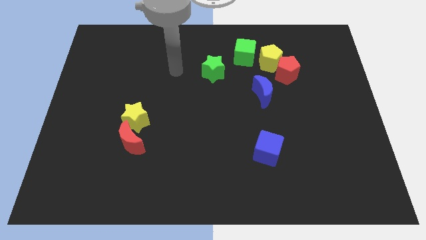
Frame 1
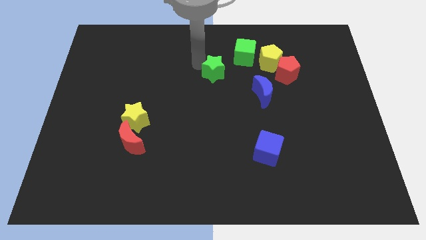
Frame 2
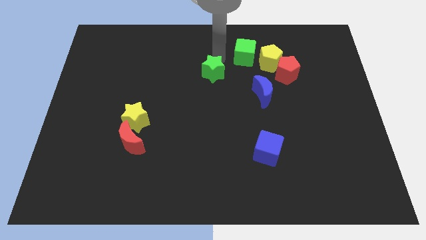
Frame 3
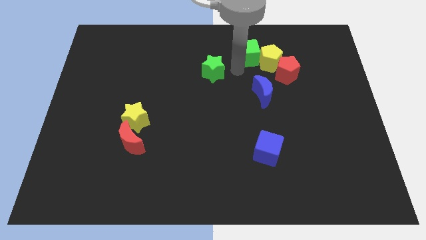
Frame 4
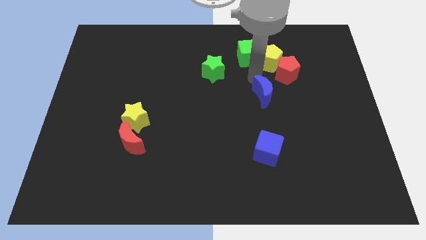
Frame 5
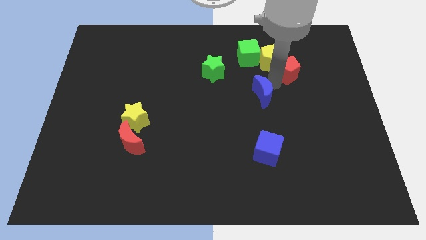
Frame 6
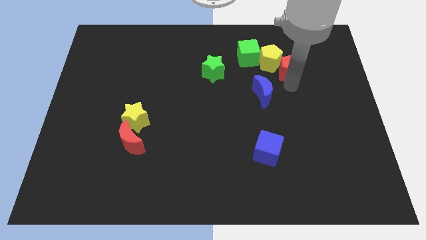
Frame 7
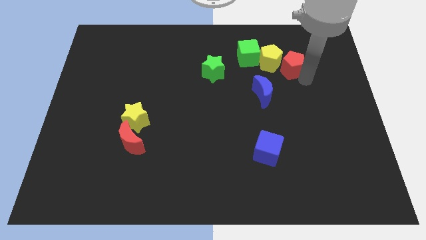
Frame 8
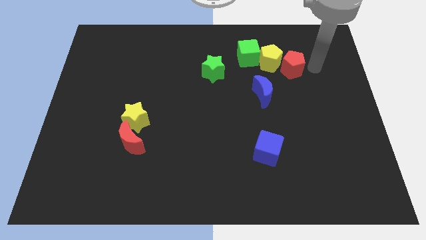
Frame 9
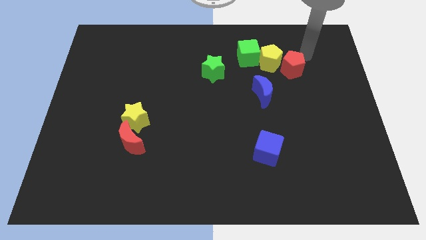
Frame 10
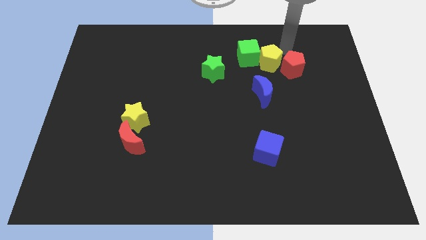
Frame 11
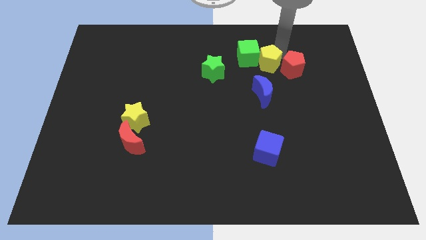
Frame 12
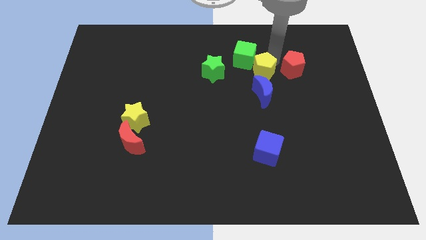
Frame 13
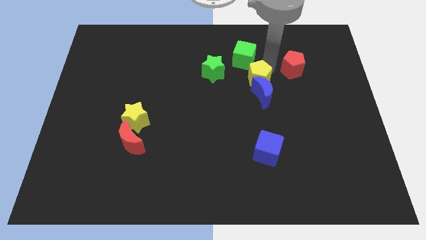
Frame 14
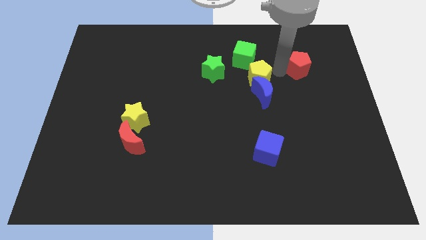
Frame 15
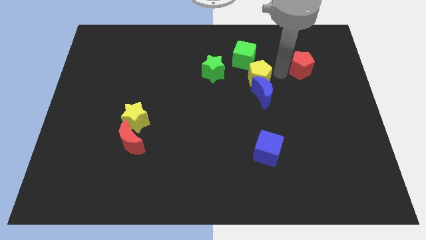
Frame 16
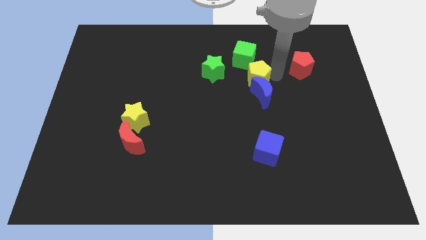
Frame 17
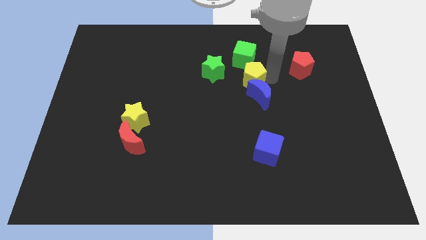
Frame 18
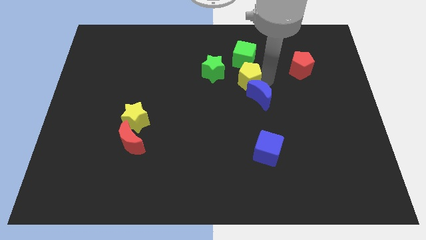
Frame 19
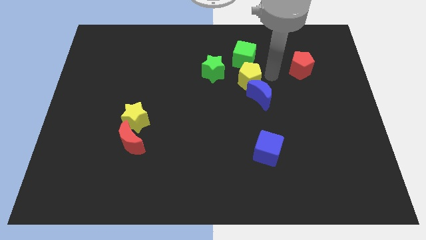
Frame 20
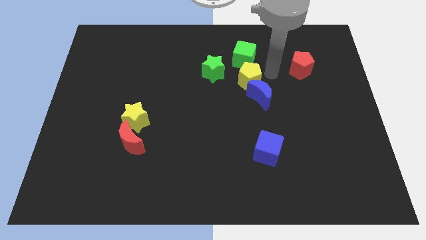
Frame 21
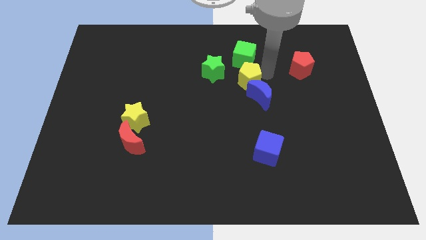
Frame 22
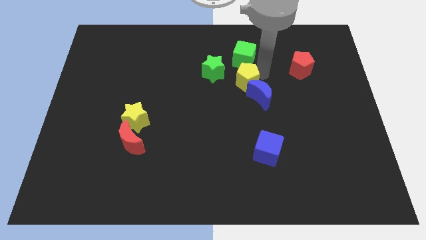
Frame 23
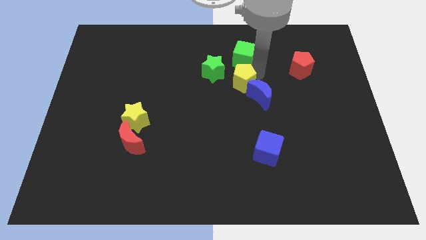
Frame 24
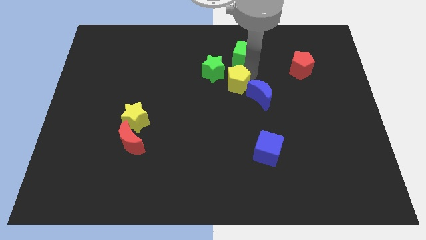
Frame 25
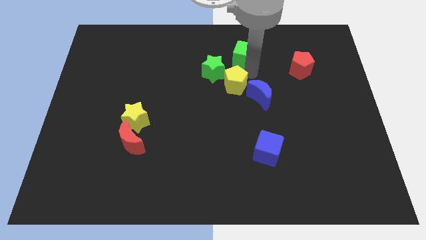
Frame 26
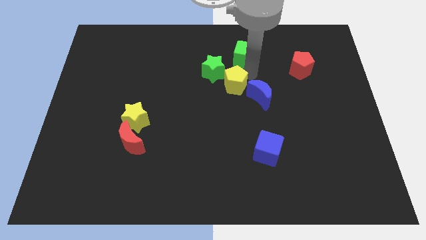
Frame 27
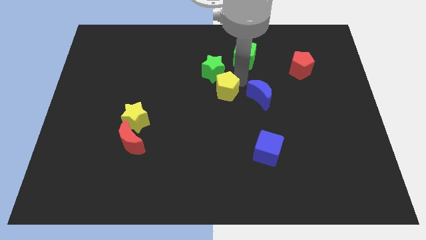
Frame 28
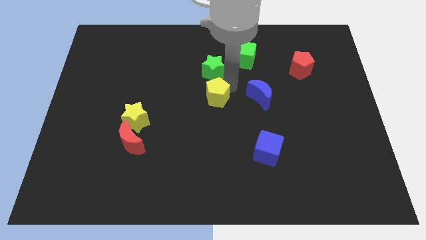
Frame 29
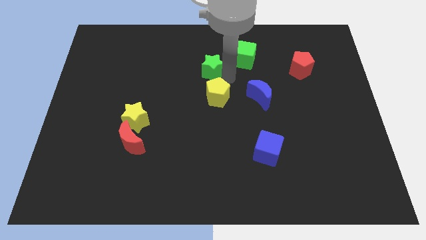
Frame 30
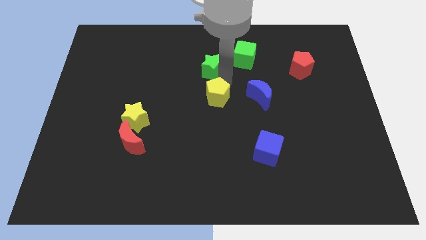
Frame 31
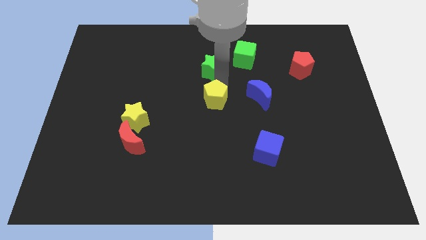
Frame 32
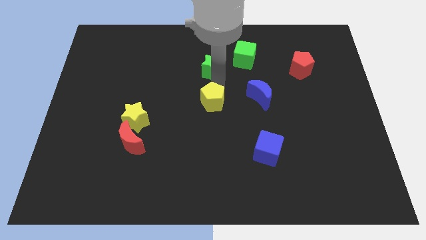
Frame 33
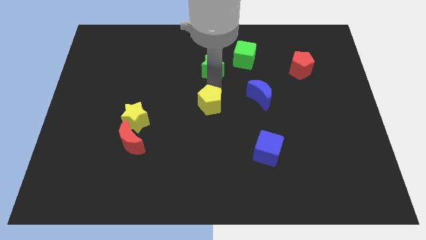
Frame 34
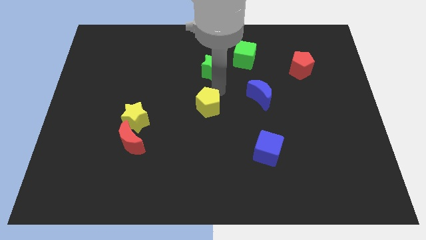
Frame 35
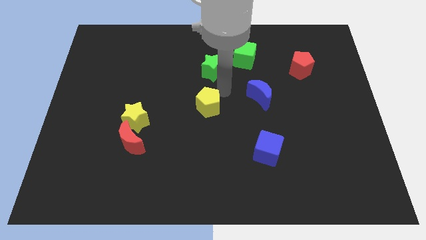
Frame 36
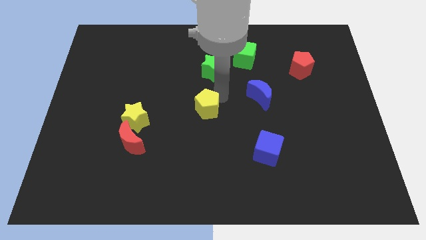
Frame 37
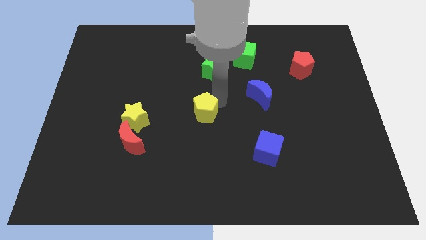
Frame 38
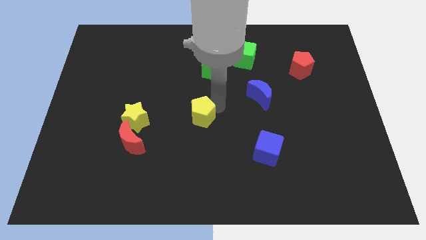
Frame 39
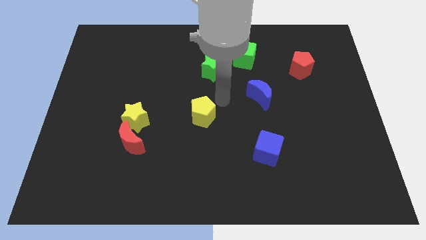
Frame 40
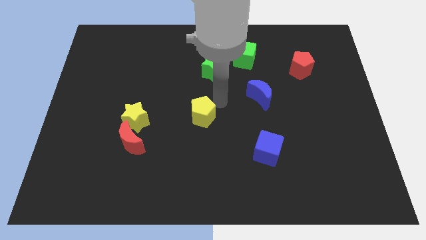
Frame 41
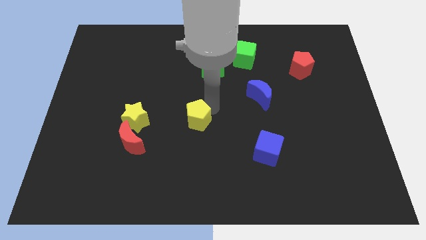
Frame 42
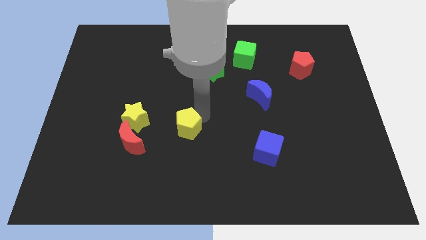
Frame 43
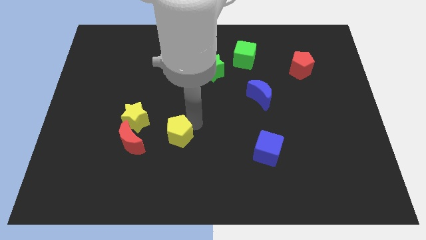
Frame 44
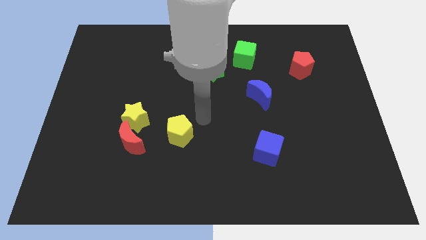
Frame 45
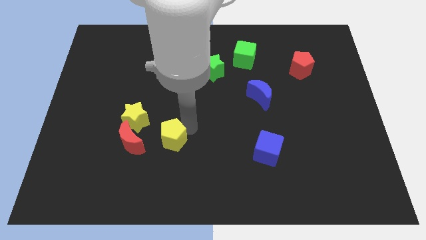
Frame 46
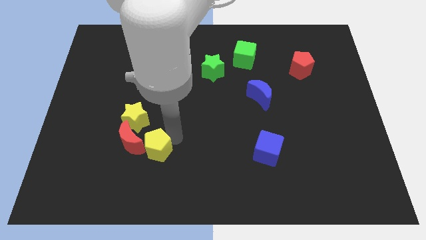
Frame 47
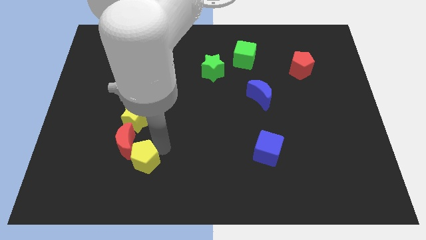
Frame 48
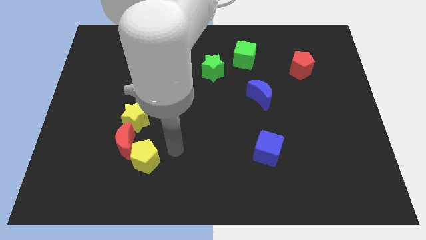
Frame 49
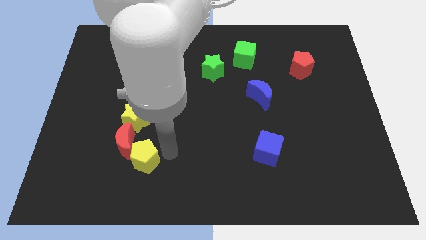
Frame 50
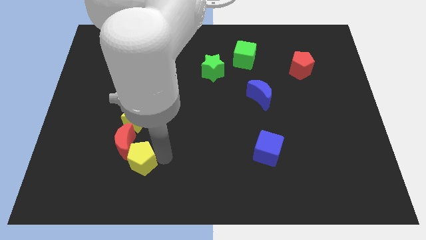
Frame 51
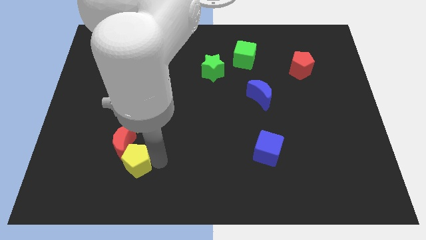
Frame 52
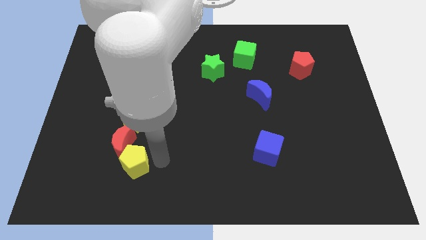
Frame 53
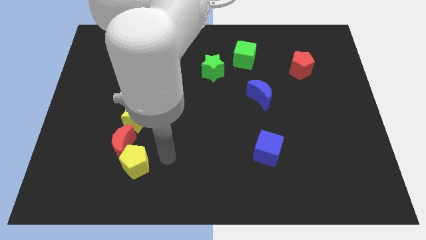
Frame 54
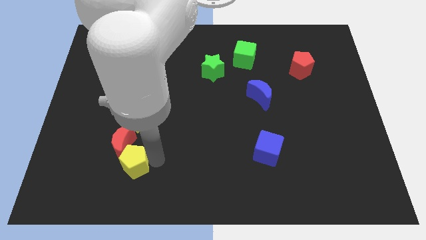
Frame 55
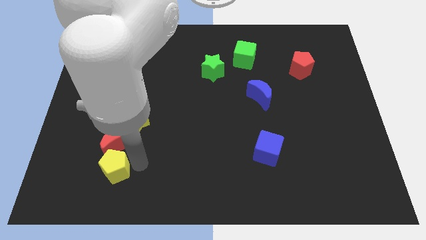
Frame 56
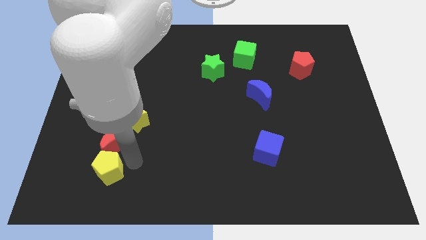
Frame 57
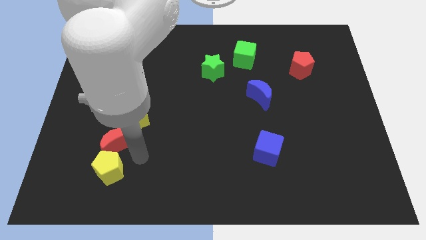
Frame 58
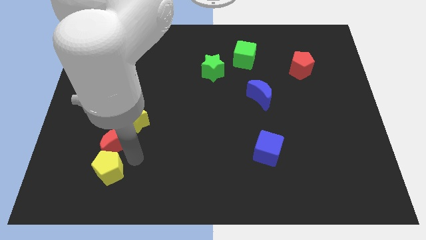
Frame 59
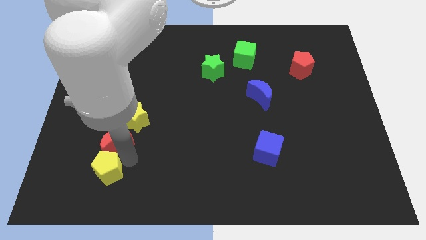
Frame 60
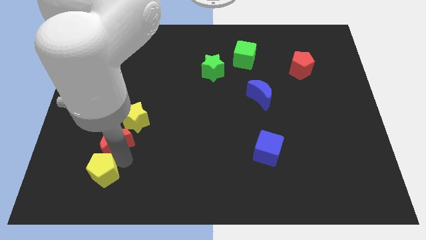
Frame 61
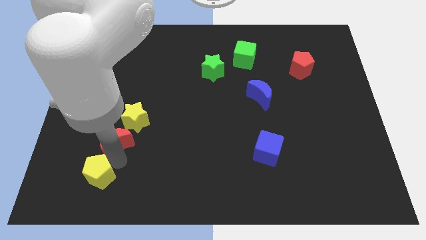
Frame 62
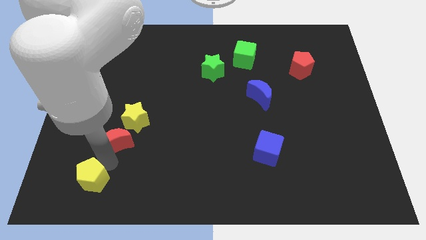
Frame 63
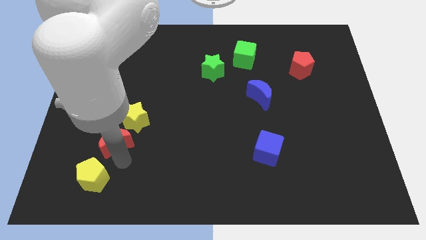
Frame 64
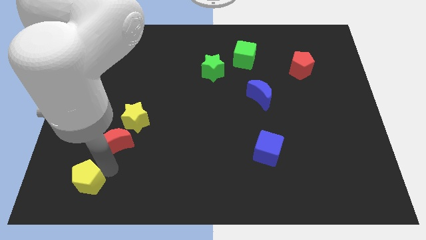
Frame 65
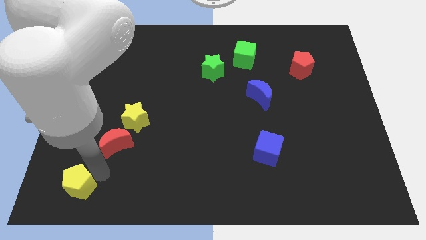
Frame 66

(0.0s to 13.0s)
move the yellow pentagon to the bottom left of the board

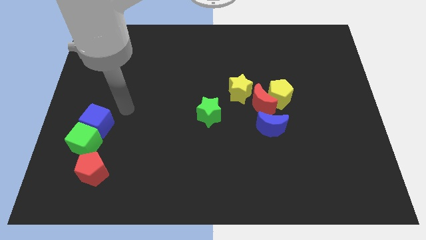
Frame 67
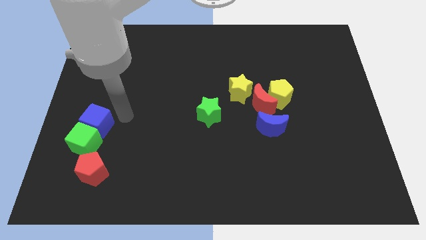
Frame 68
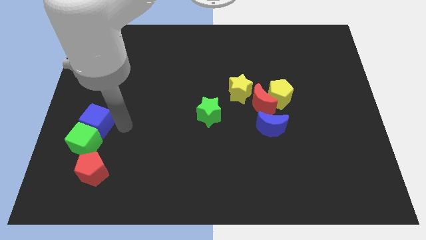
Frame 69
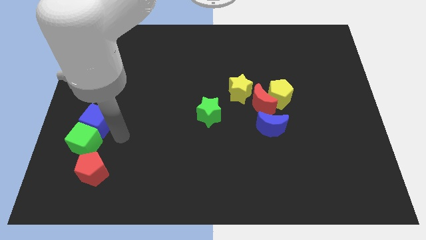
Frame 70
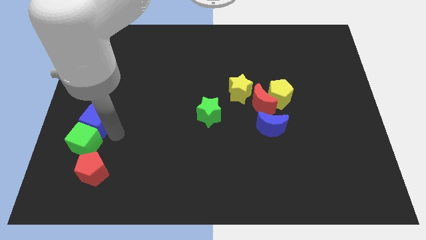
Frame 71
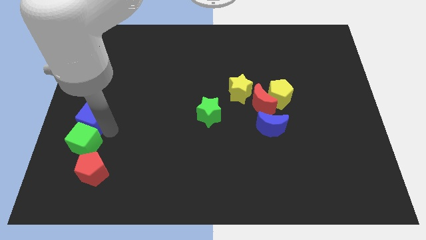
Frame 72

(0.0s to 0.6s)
slide the blue cube to the left side of the board
